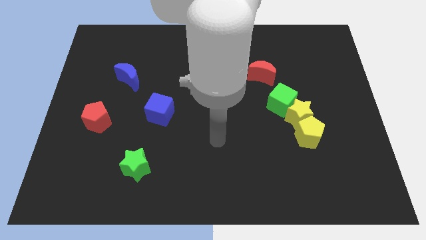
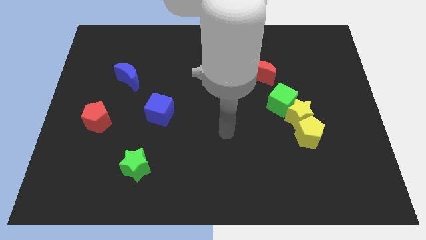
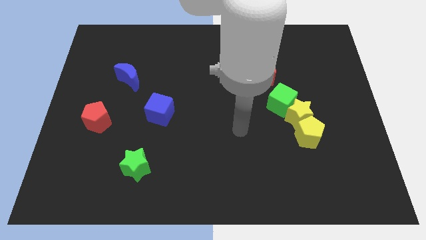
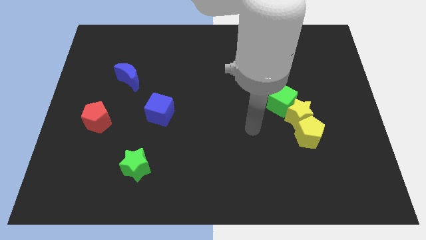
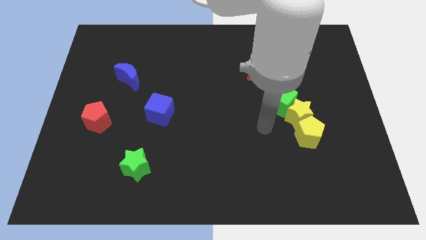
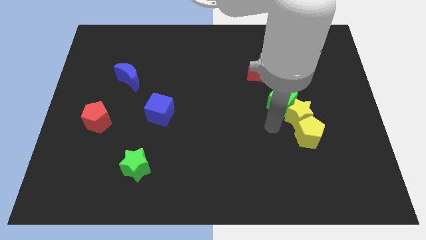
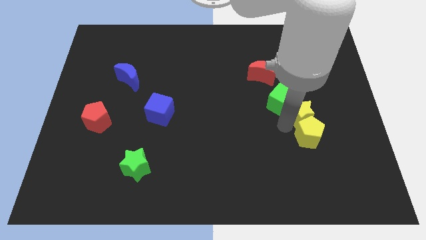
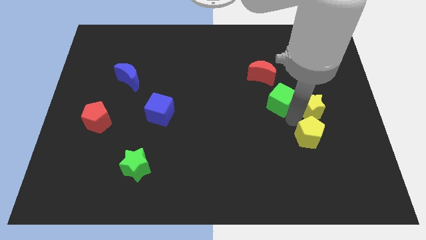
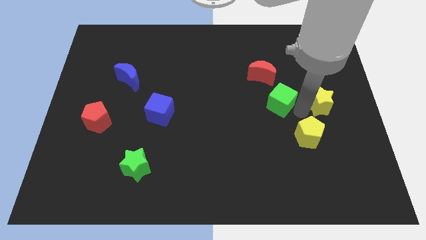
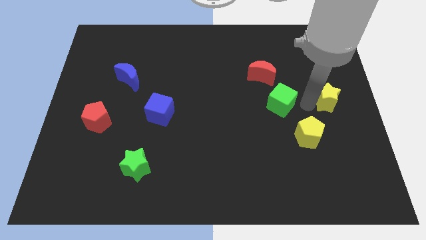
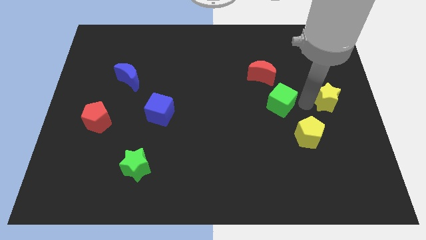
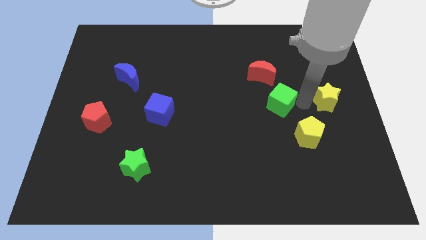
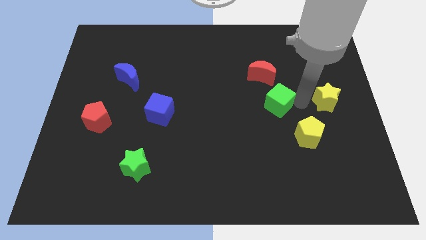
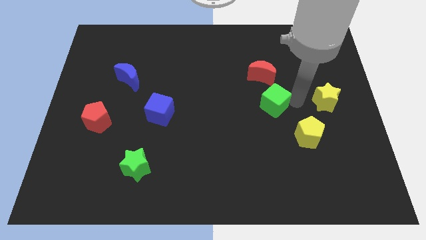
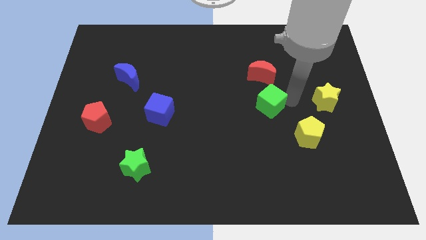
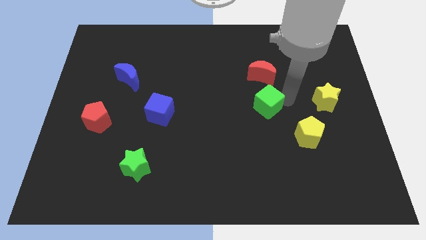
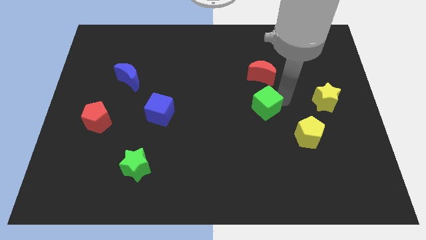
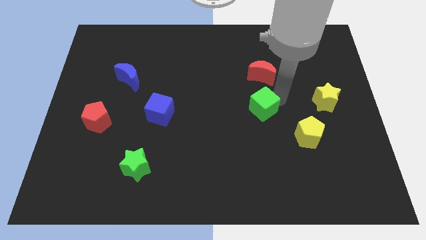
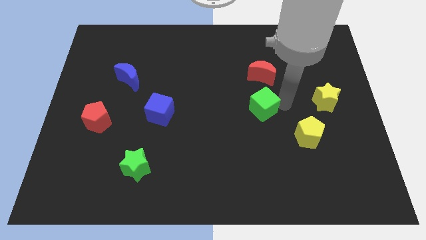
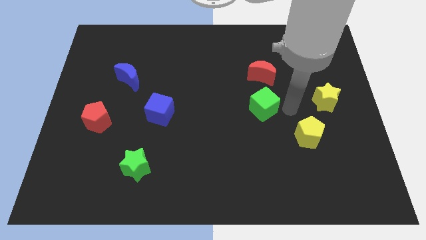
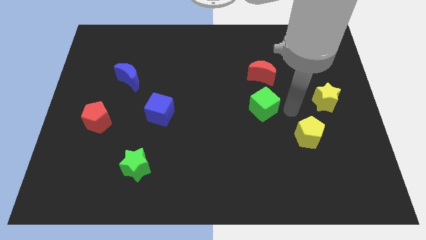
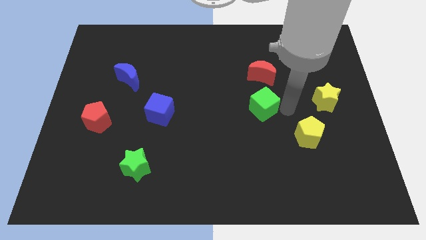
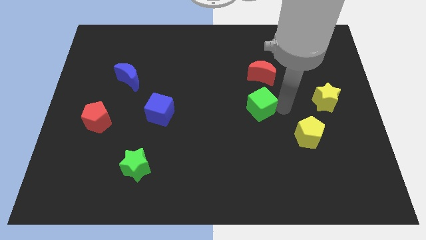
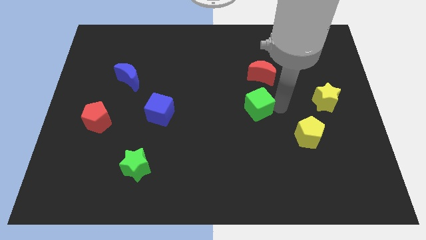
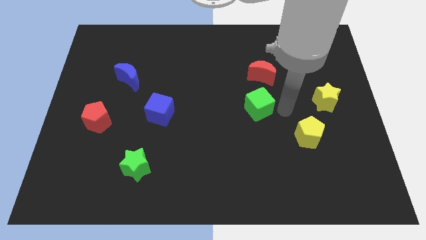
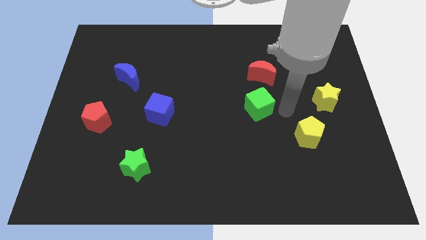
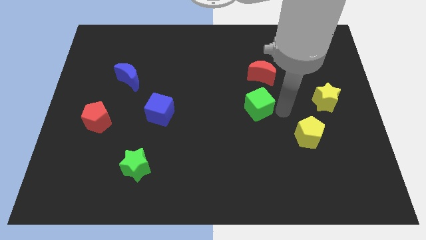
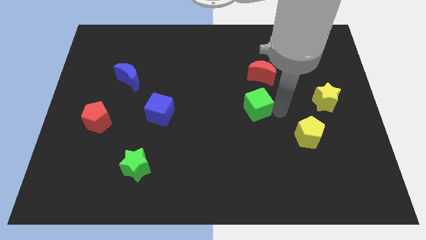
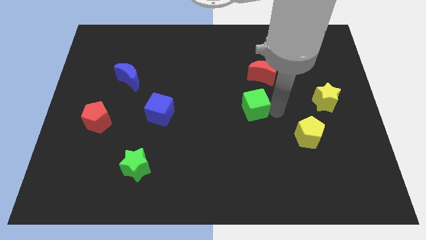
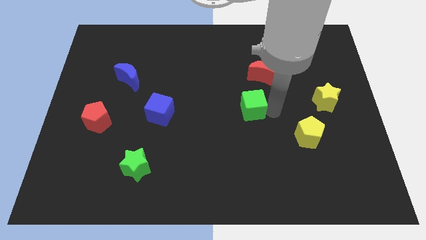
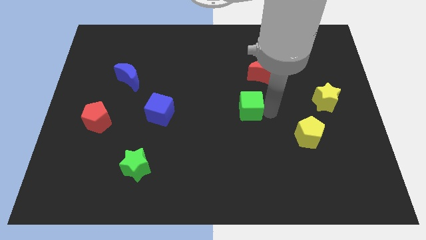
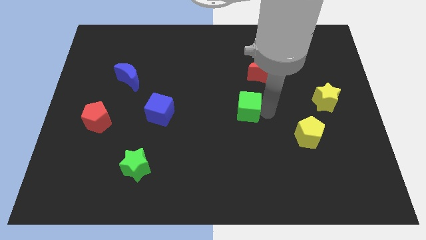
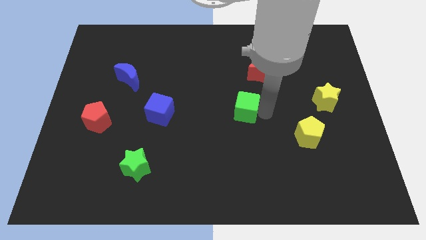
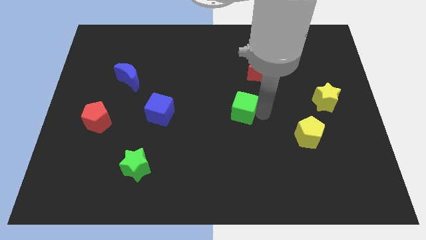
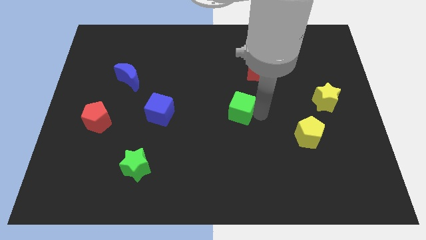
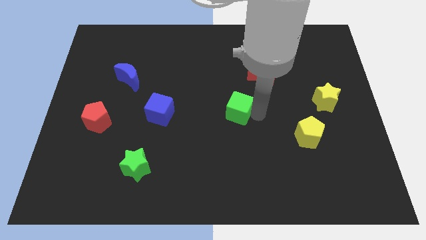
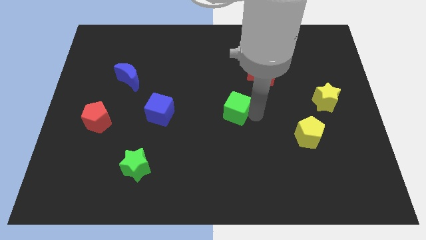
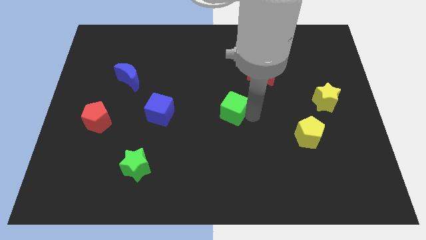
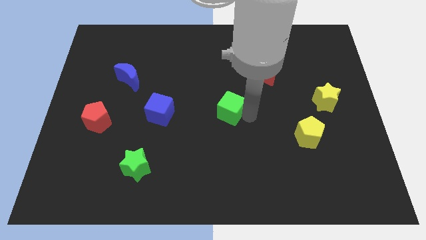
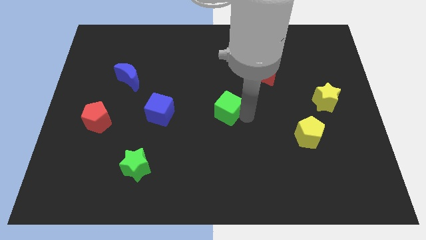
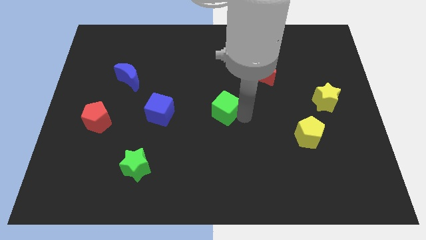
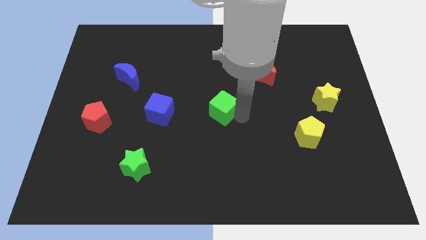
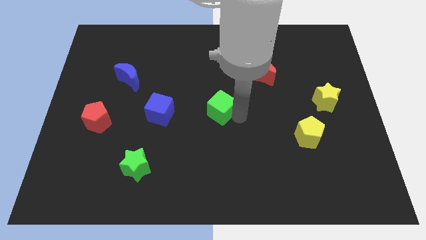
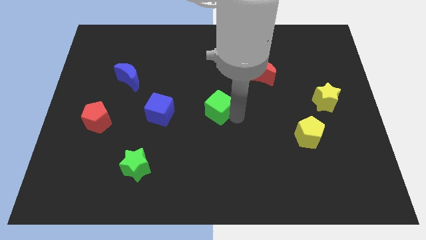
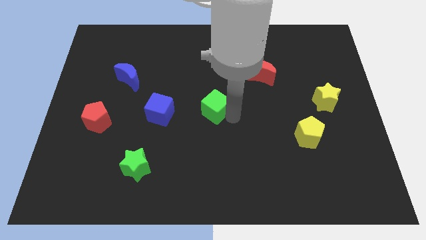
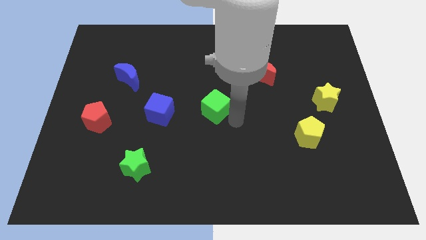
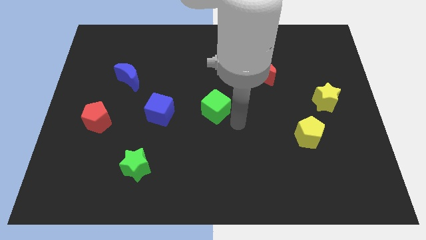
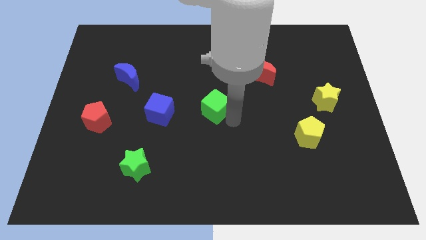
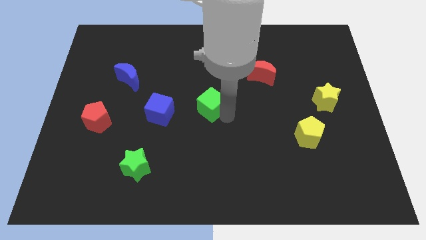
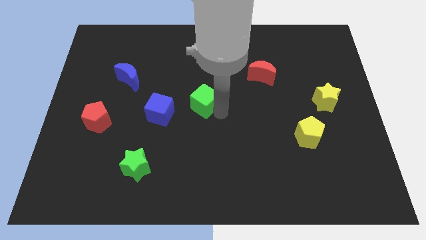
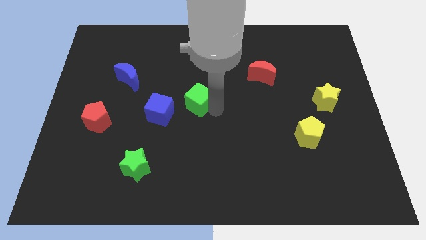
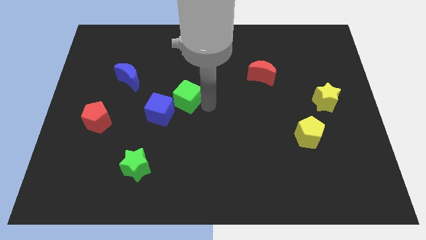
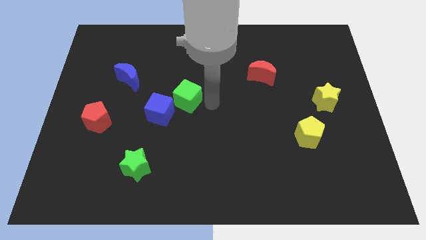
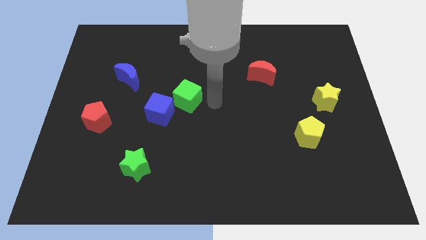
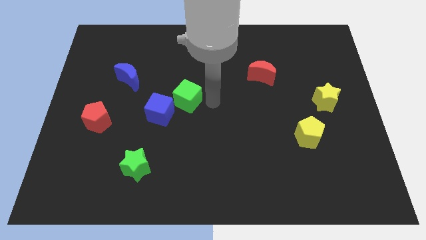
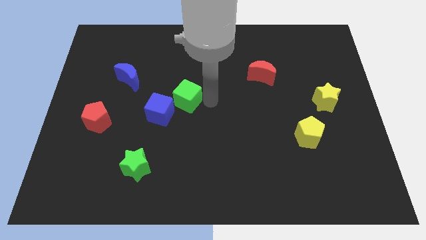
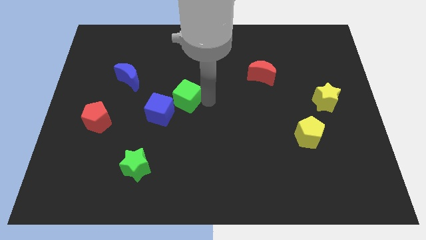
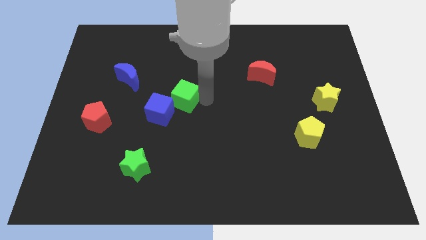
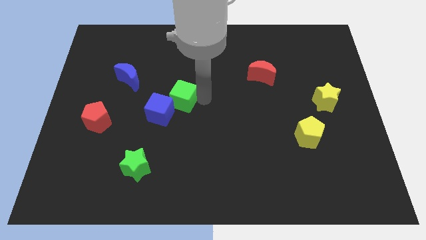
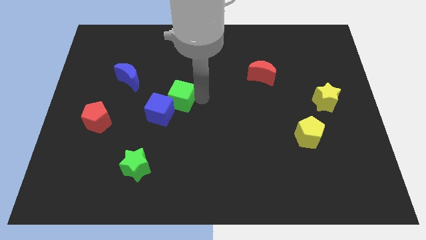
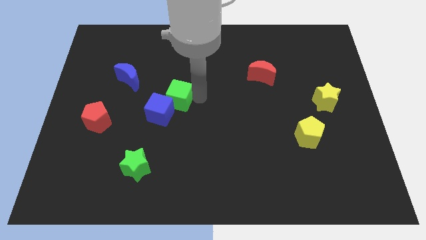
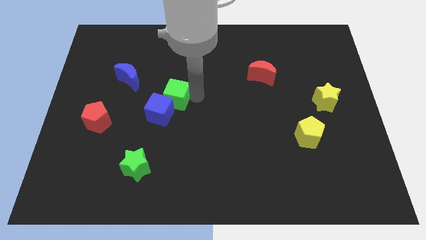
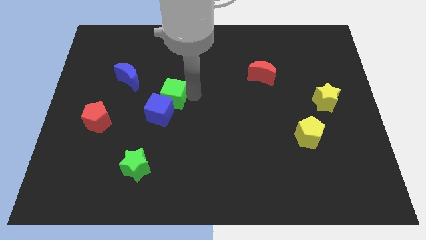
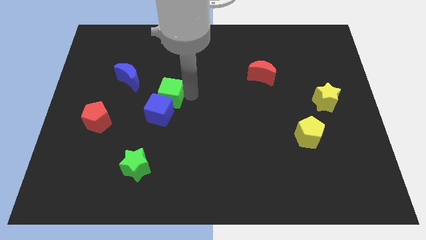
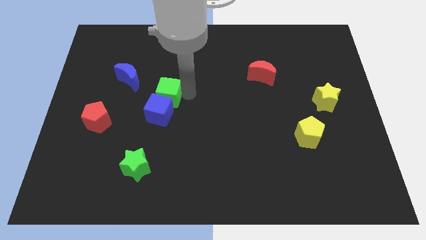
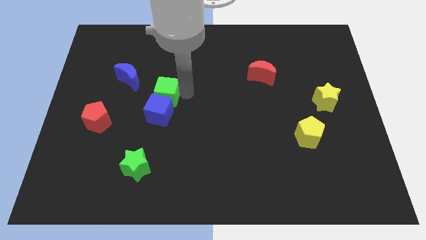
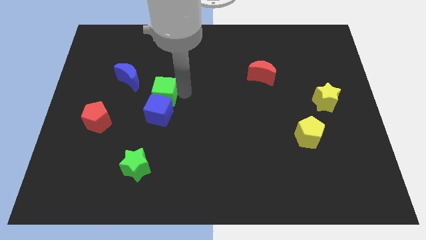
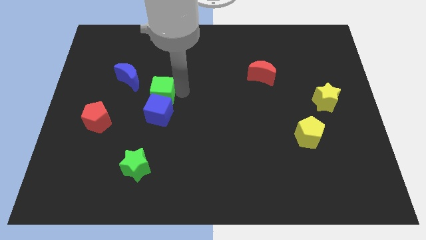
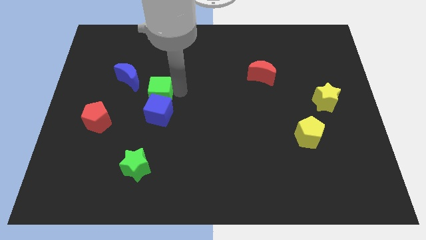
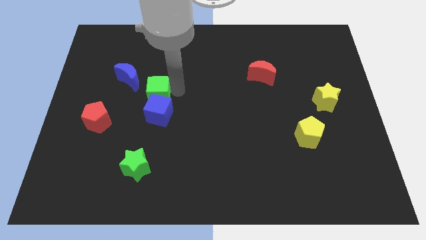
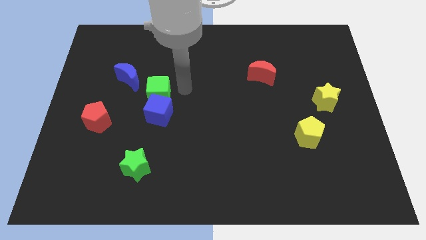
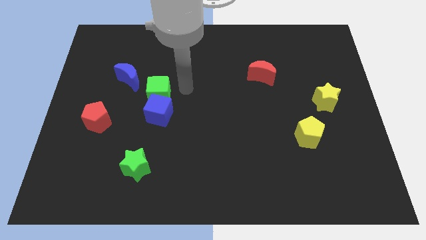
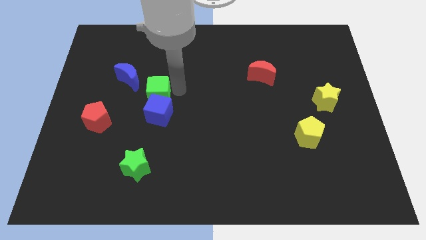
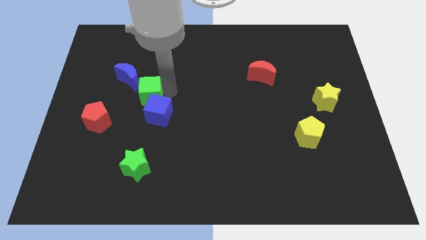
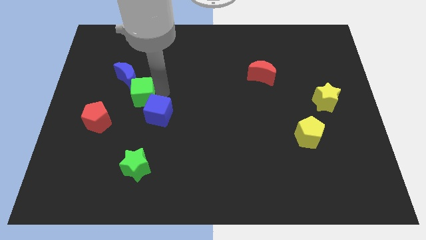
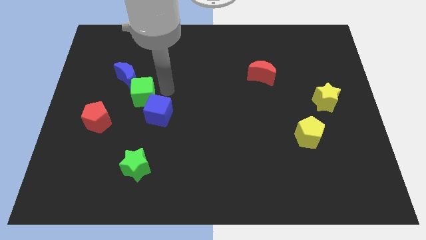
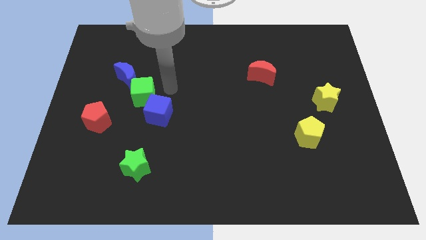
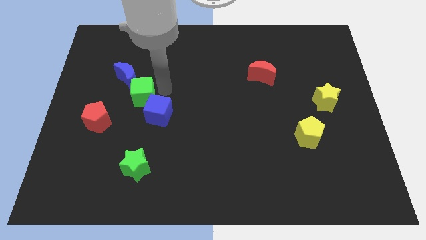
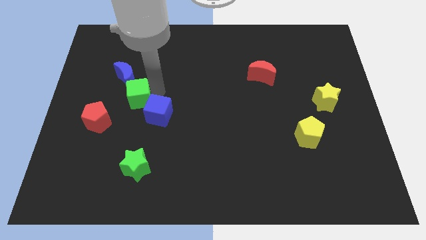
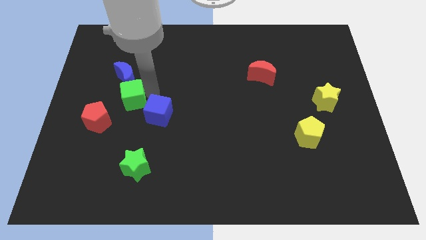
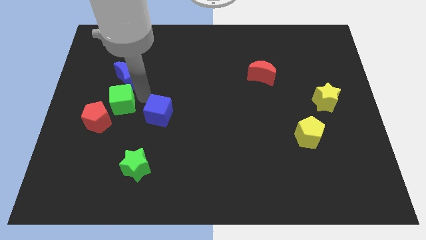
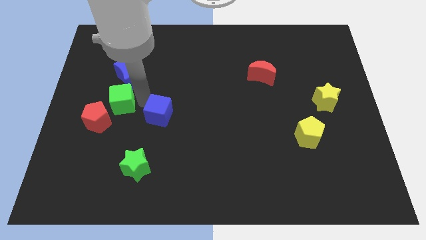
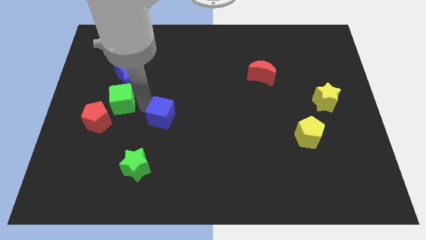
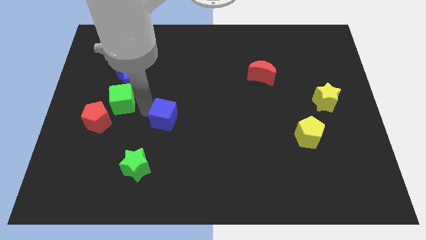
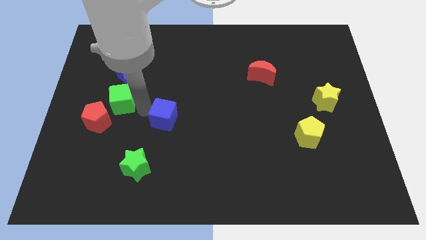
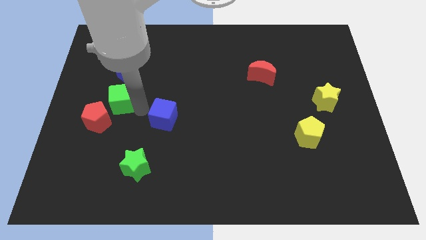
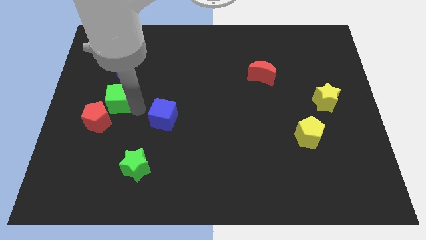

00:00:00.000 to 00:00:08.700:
move the green cube to the bottom left of the blue moon
